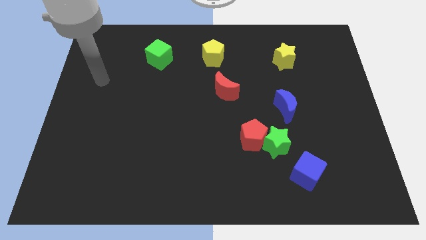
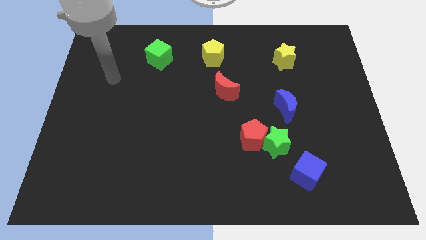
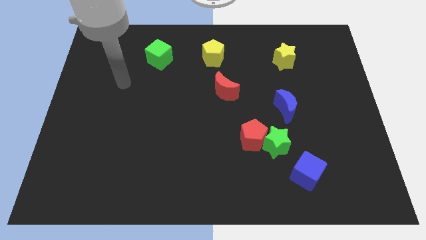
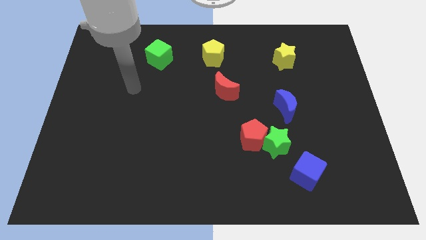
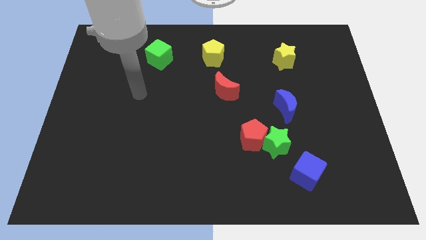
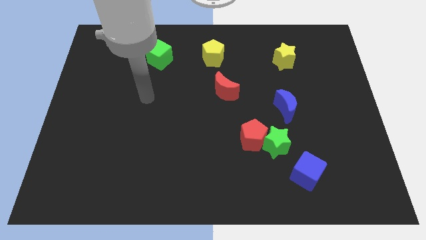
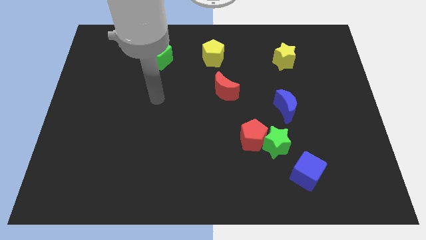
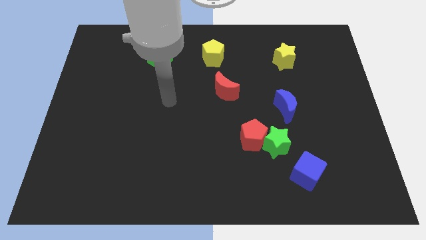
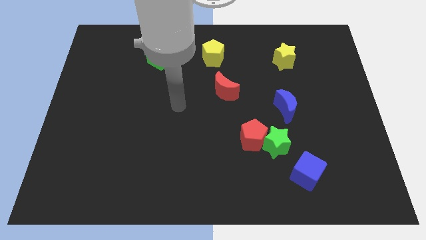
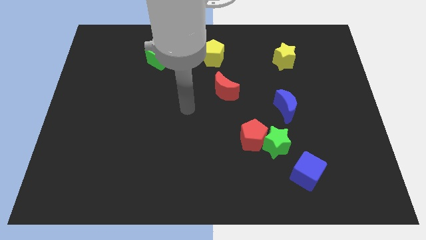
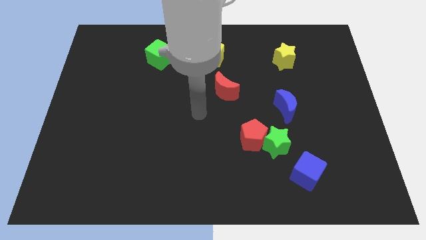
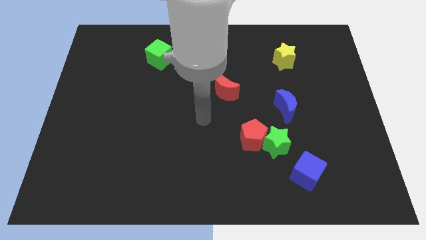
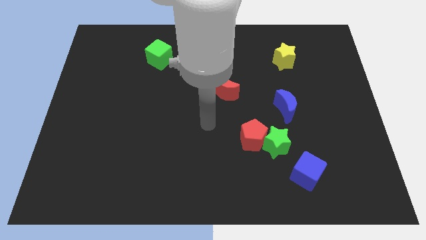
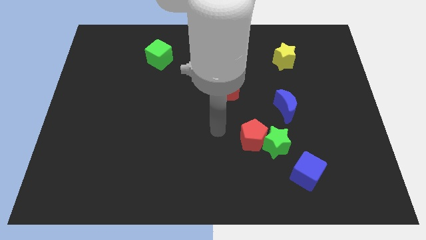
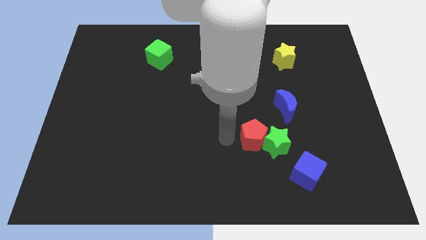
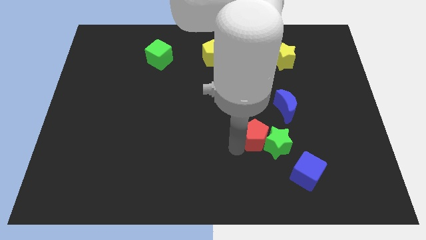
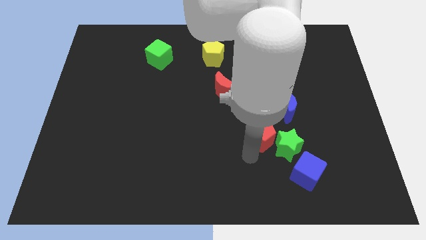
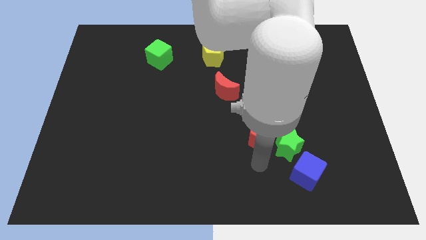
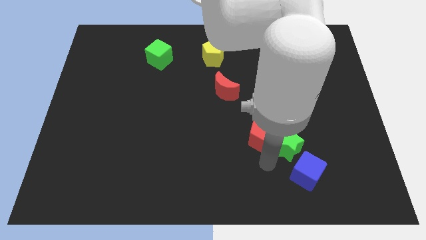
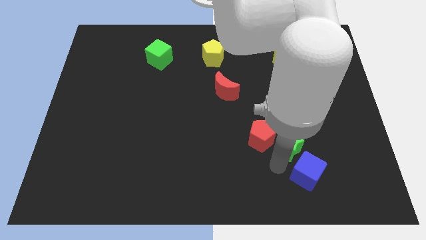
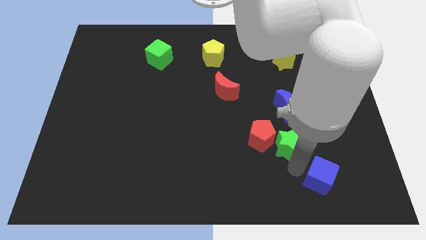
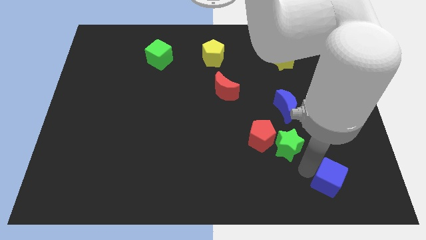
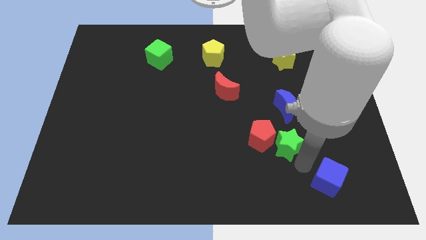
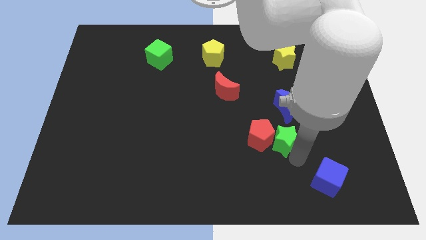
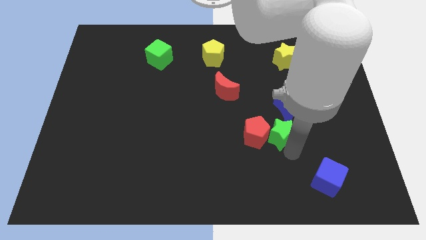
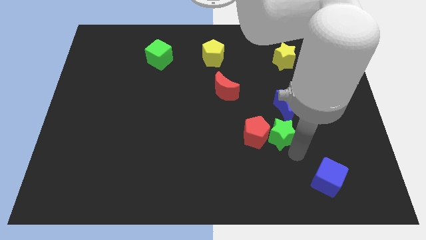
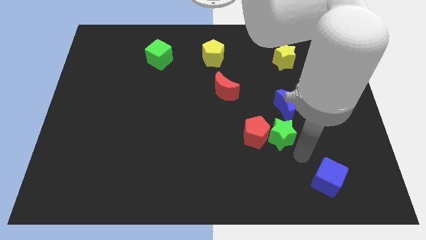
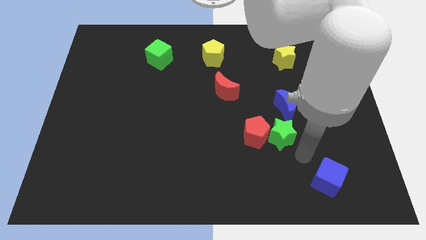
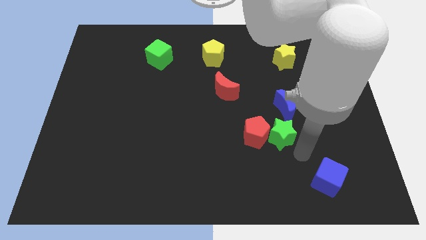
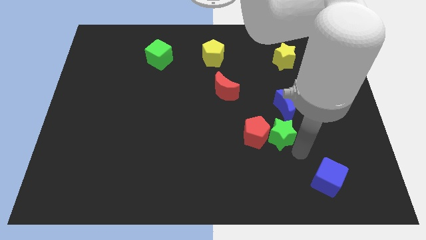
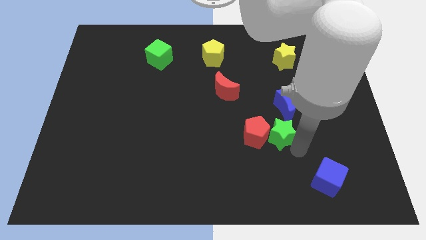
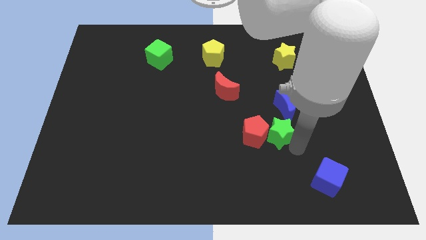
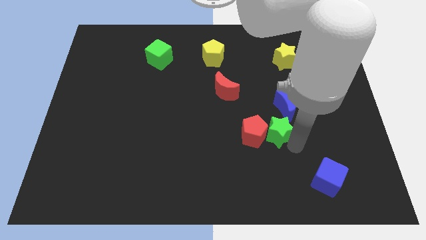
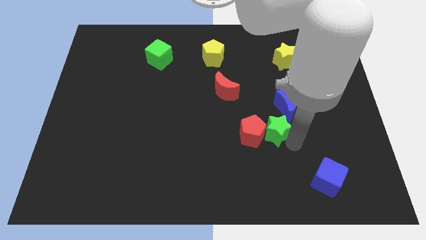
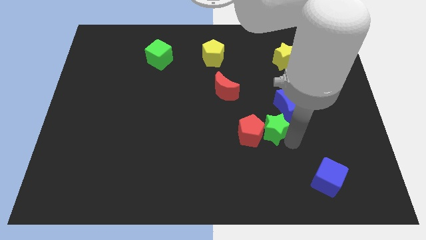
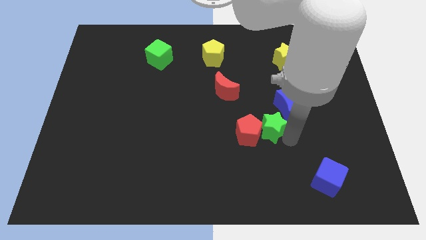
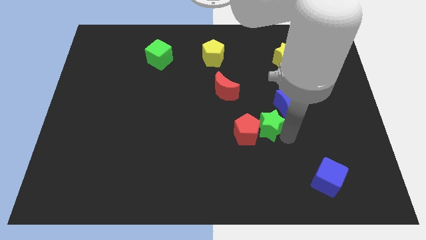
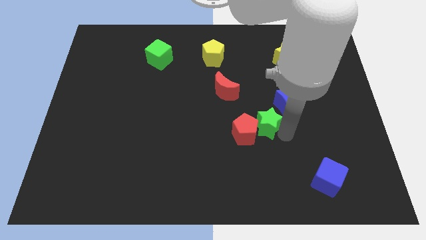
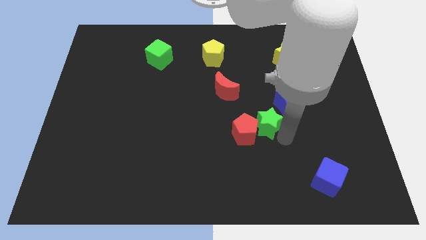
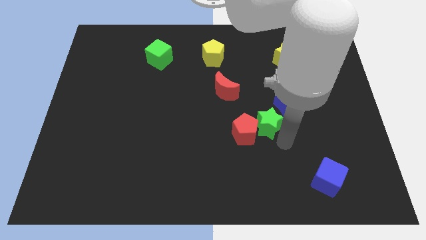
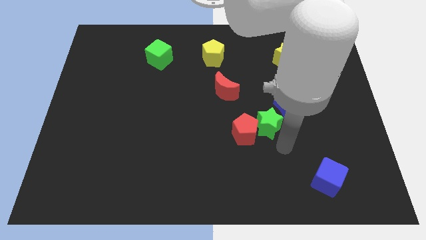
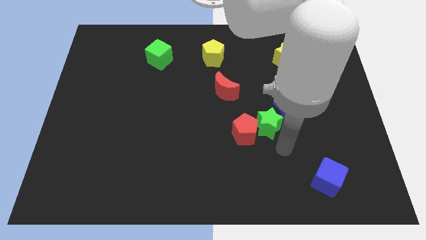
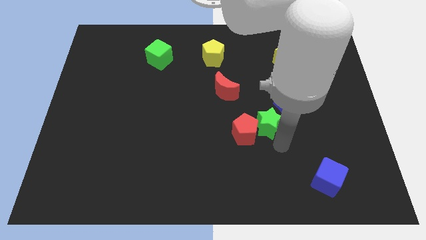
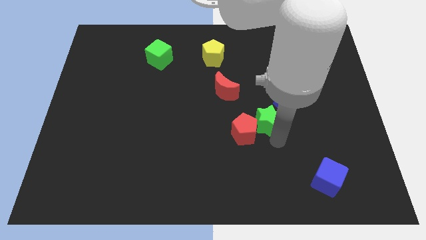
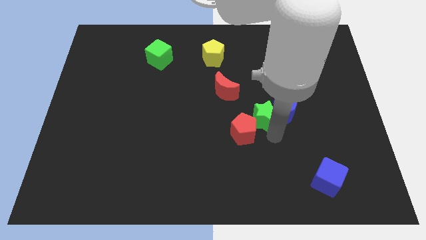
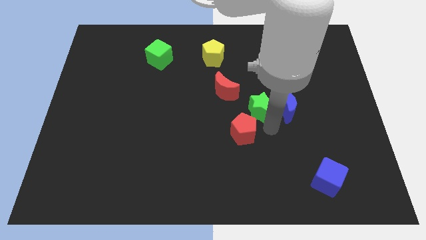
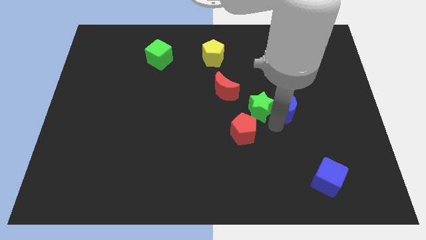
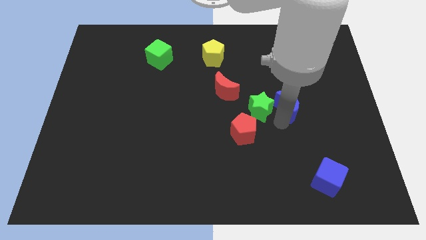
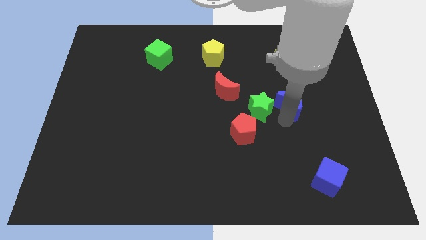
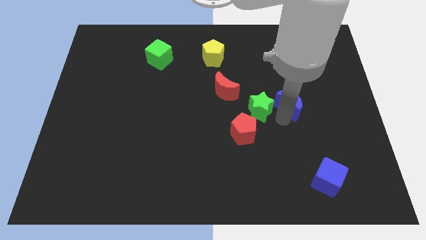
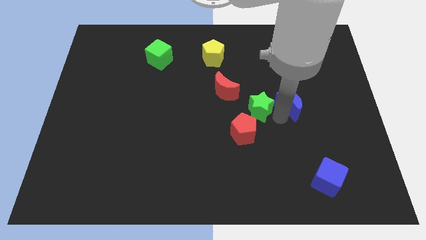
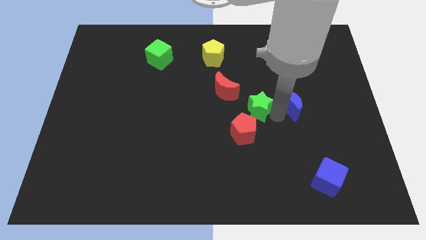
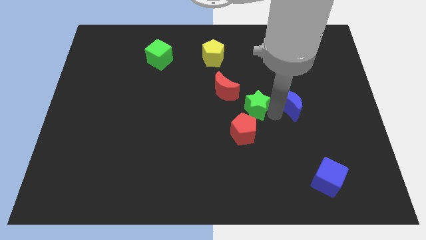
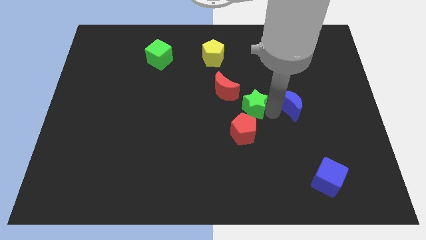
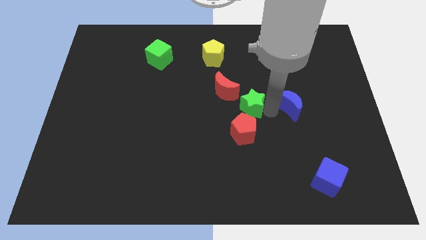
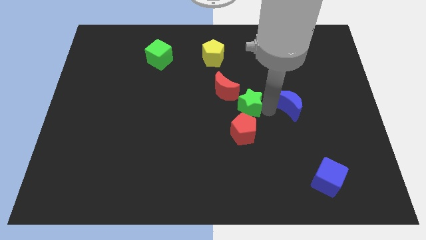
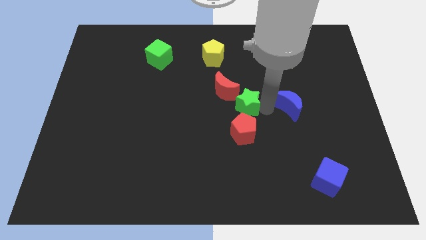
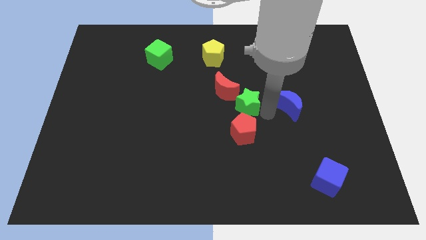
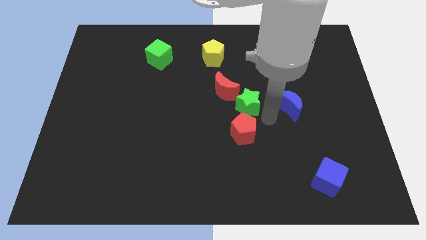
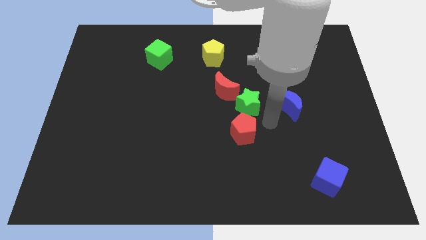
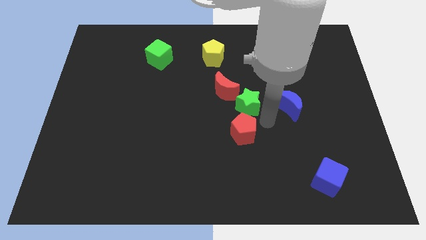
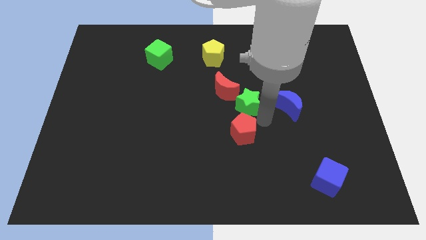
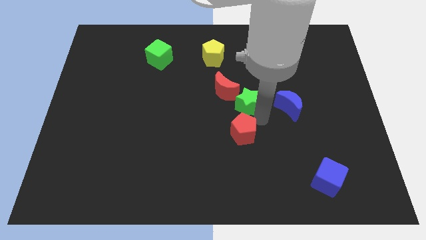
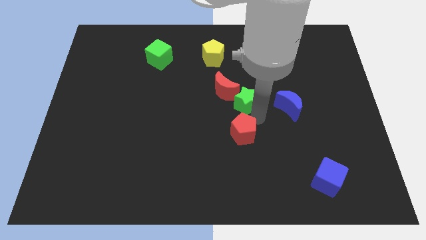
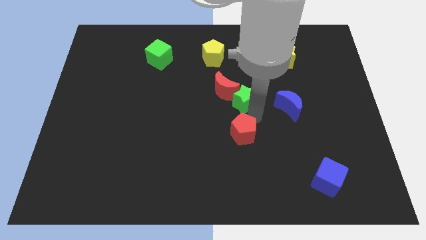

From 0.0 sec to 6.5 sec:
push the green star close to the red moon

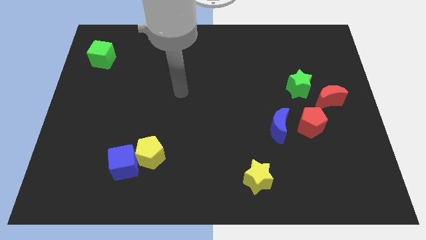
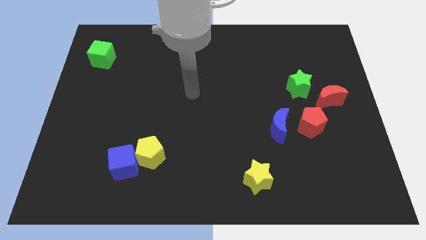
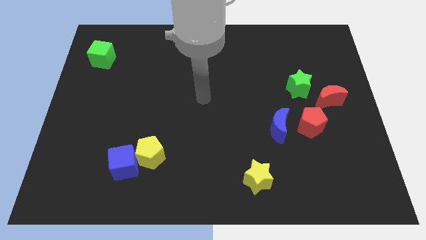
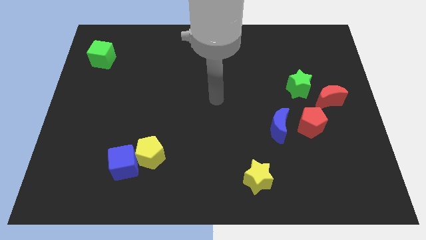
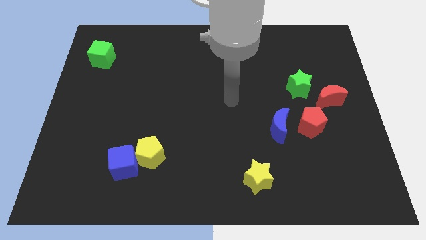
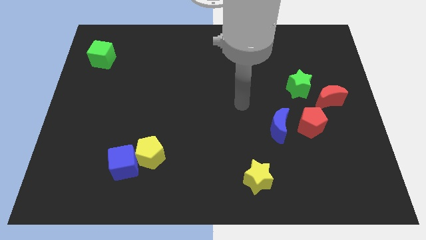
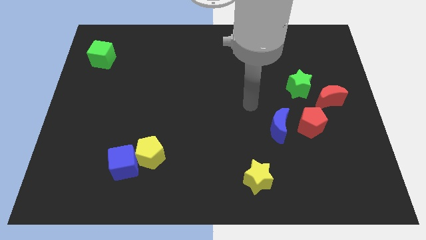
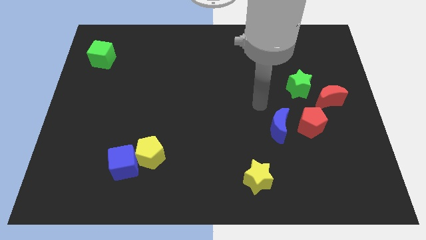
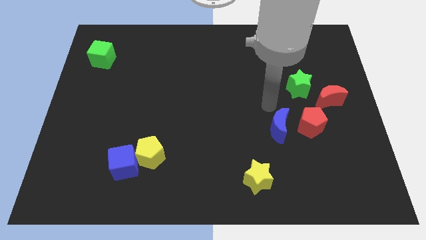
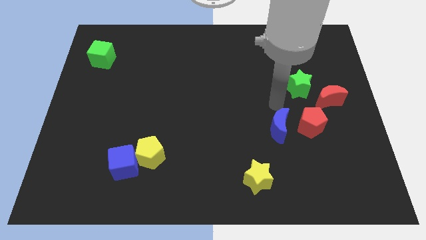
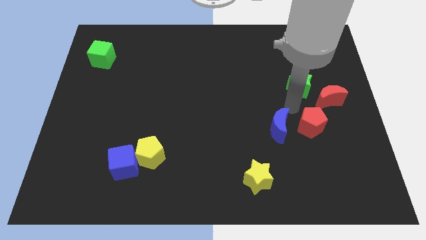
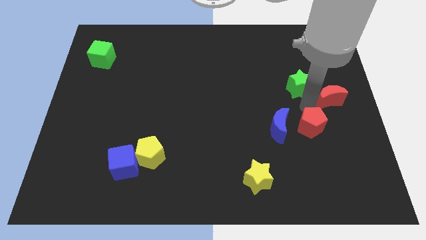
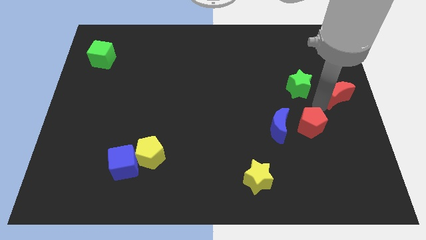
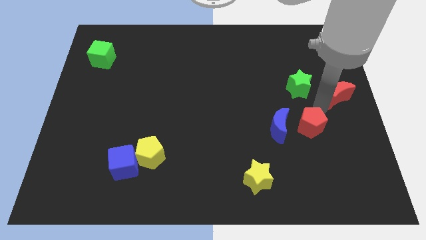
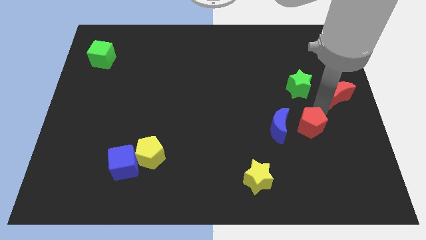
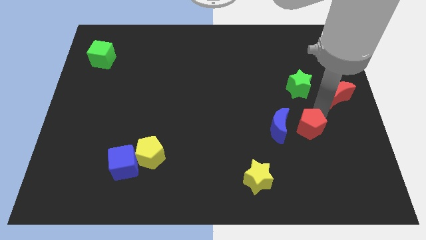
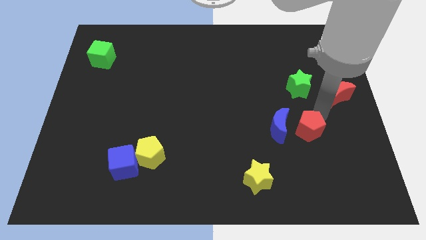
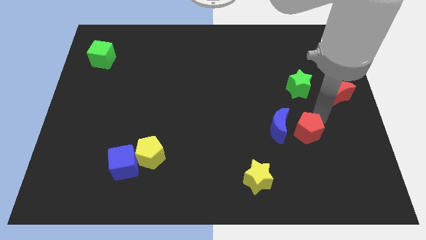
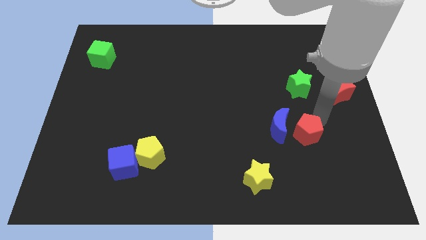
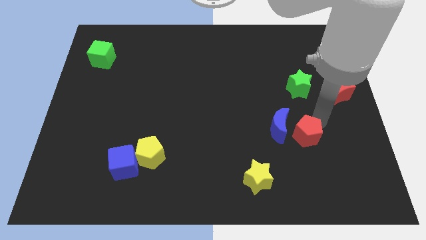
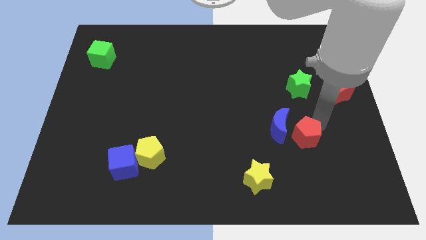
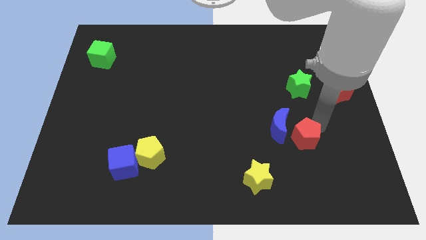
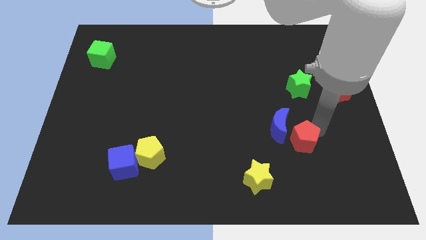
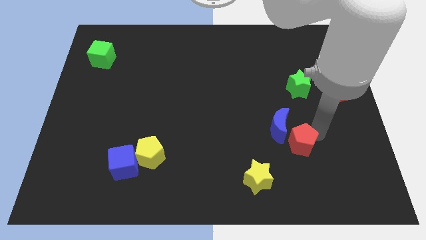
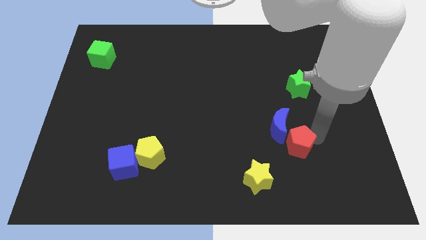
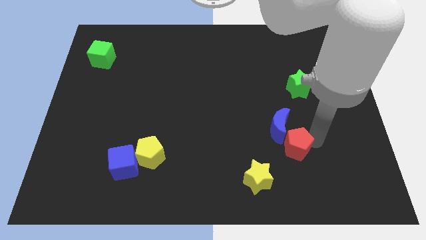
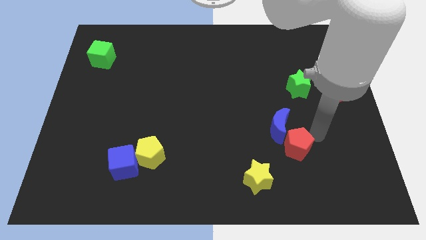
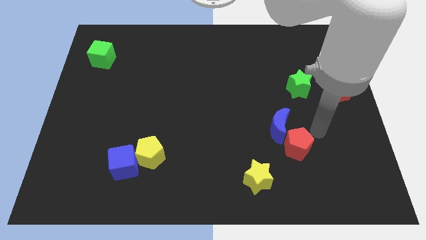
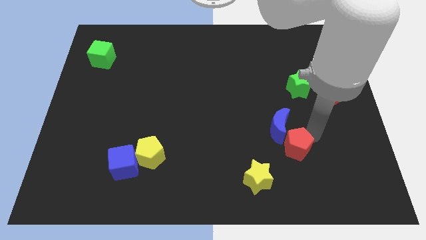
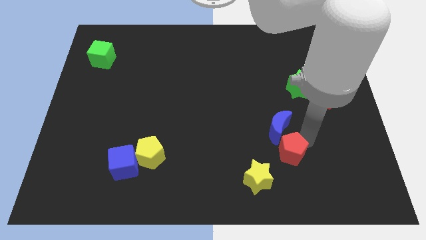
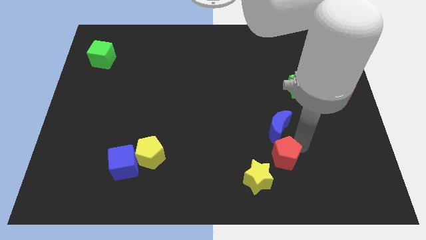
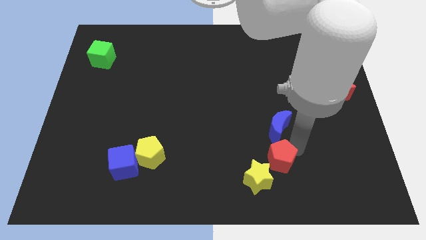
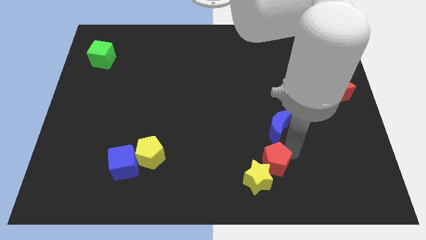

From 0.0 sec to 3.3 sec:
push the red pentagon to the yellow star
